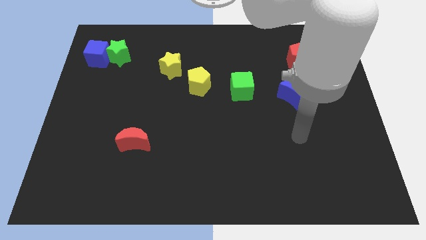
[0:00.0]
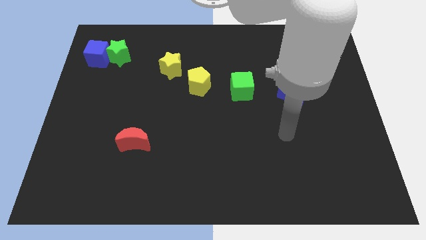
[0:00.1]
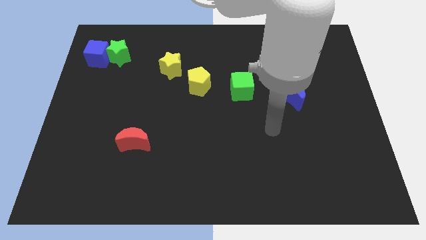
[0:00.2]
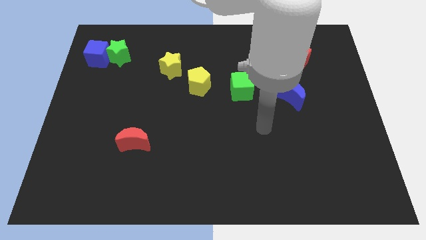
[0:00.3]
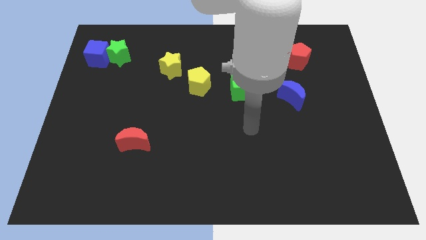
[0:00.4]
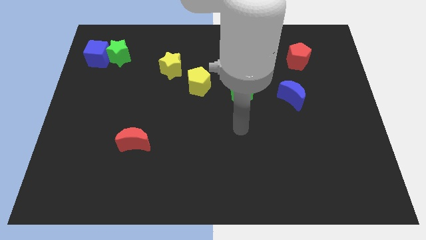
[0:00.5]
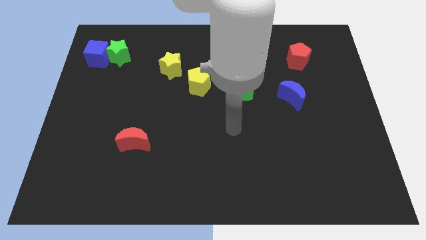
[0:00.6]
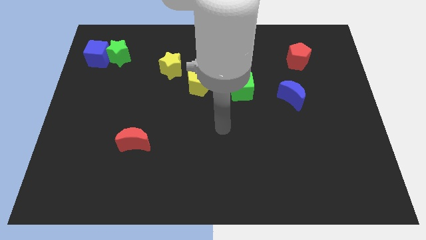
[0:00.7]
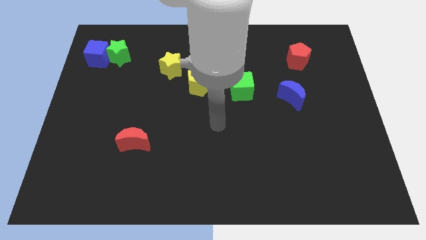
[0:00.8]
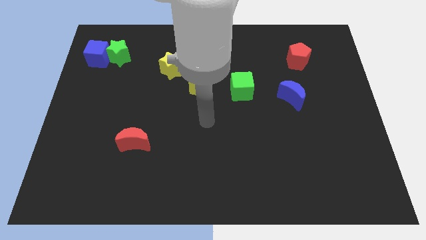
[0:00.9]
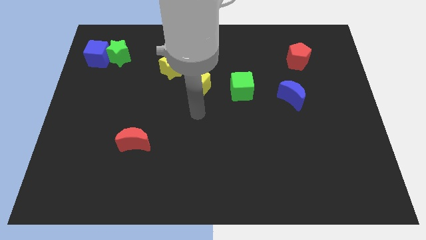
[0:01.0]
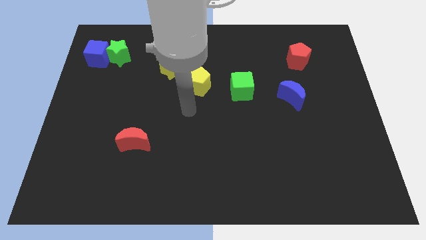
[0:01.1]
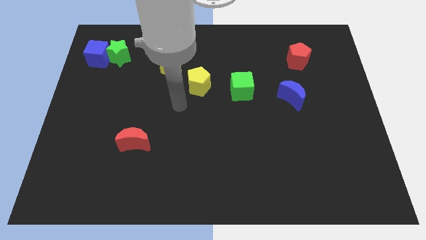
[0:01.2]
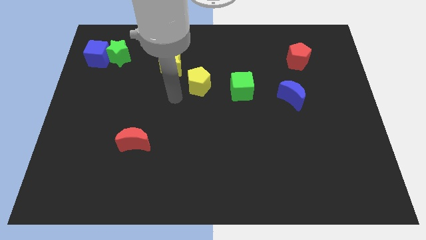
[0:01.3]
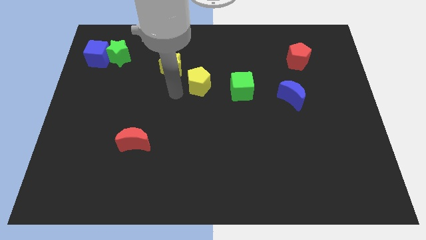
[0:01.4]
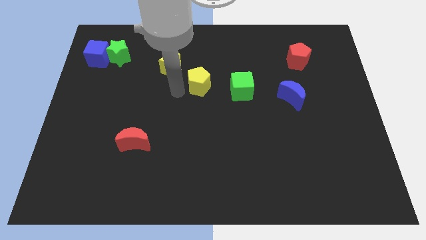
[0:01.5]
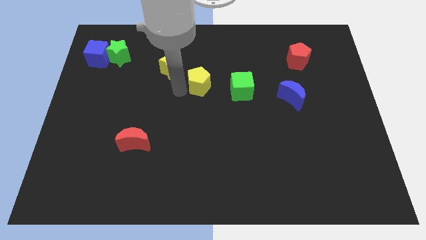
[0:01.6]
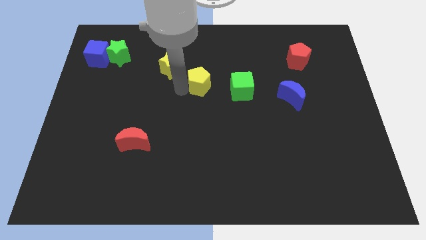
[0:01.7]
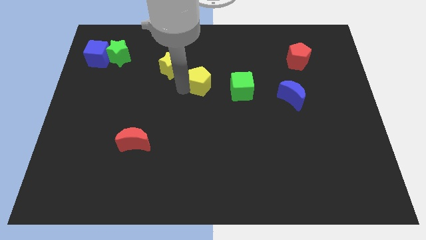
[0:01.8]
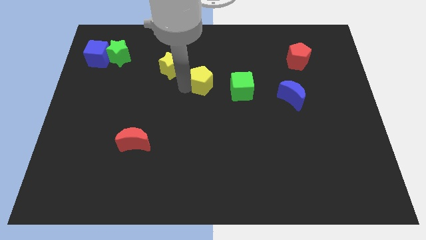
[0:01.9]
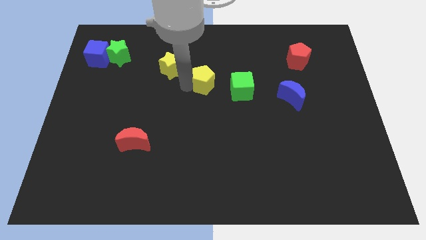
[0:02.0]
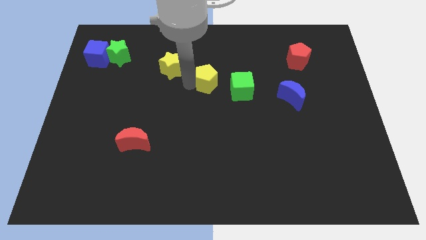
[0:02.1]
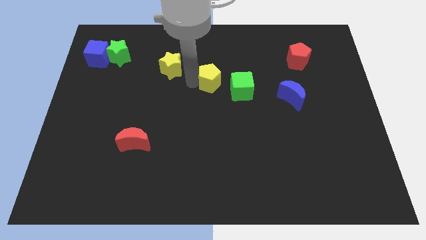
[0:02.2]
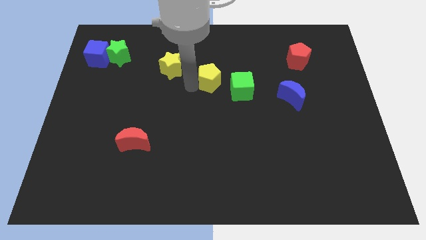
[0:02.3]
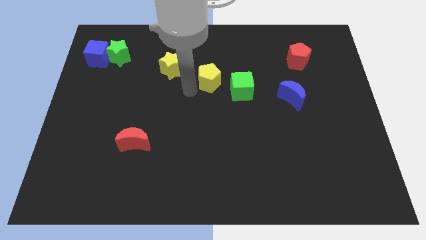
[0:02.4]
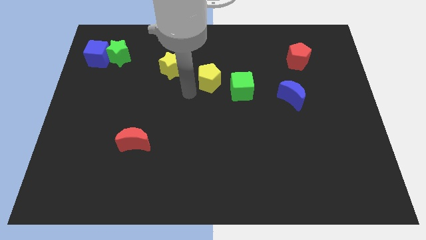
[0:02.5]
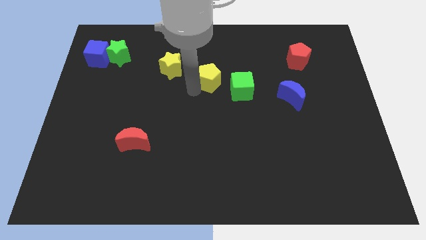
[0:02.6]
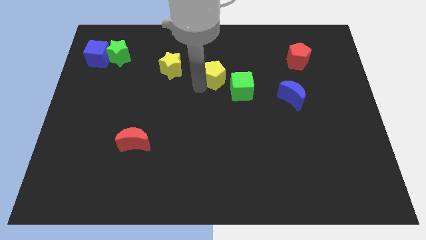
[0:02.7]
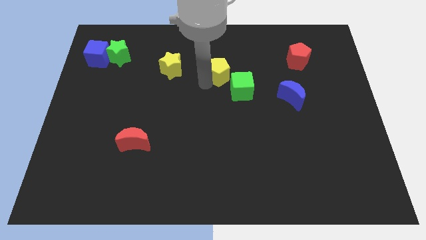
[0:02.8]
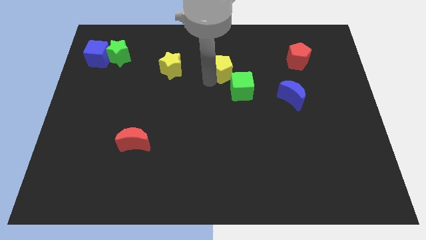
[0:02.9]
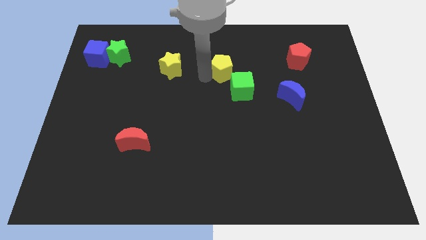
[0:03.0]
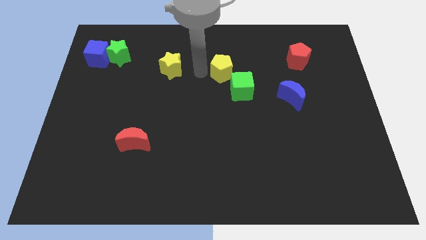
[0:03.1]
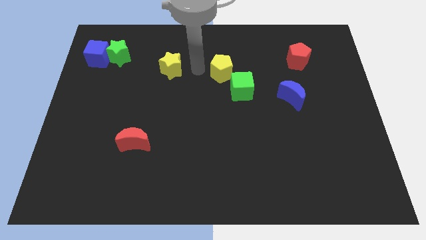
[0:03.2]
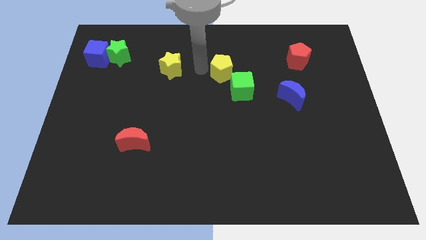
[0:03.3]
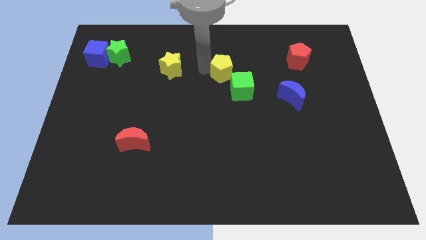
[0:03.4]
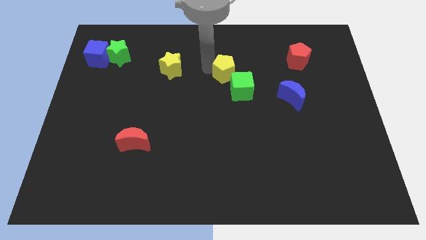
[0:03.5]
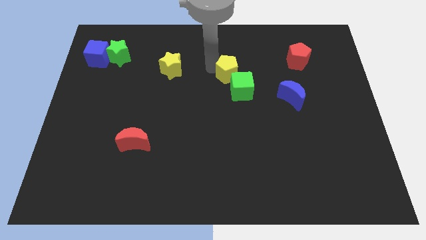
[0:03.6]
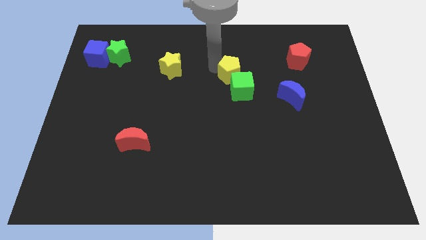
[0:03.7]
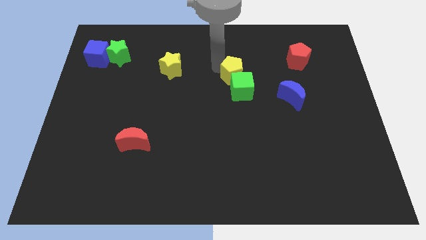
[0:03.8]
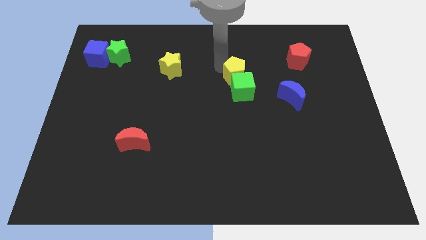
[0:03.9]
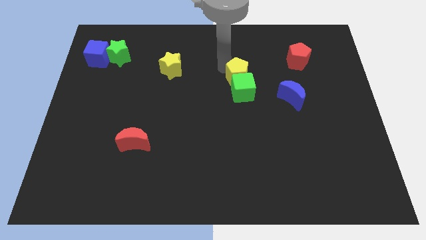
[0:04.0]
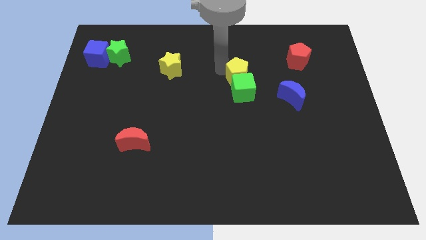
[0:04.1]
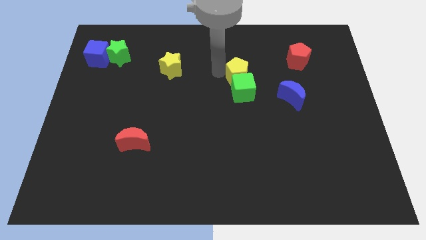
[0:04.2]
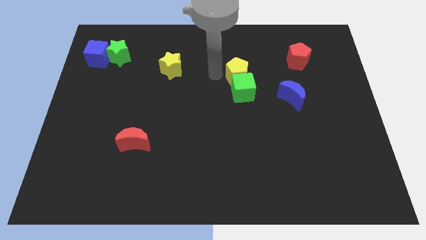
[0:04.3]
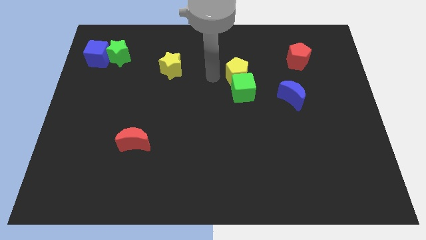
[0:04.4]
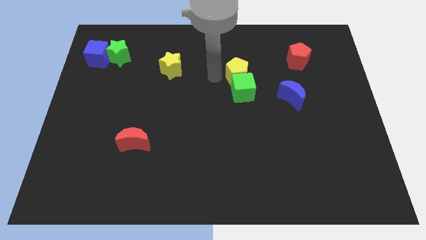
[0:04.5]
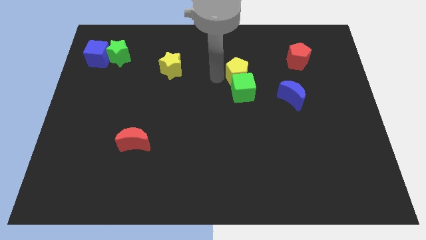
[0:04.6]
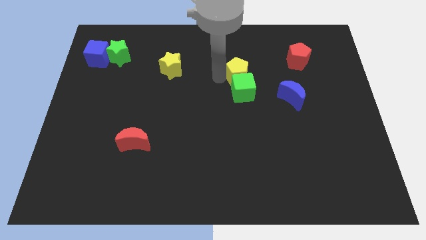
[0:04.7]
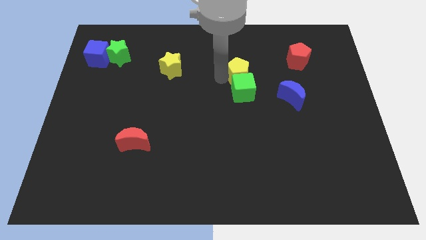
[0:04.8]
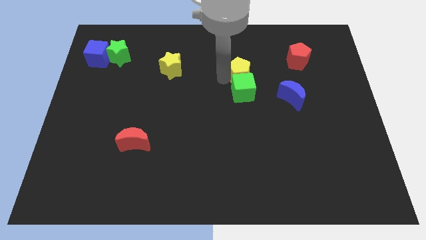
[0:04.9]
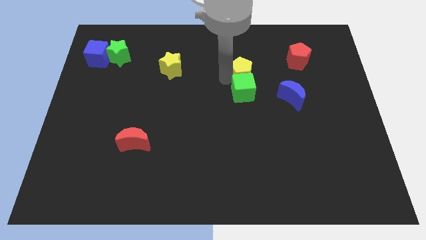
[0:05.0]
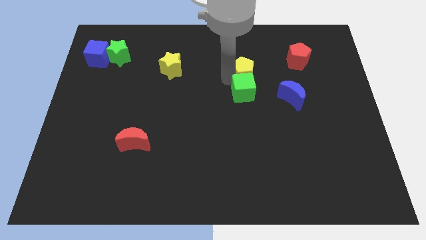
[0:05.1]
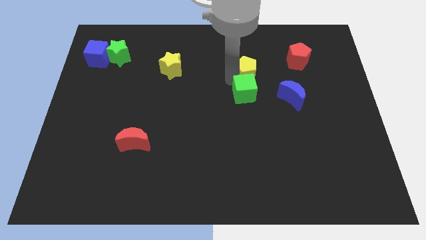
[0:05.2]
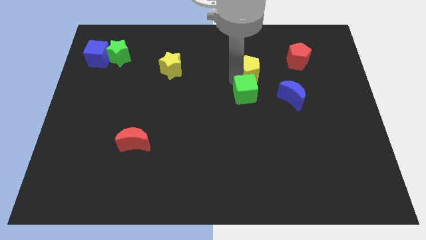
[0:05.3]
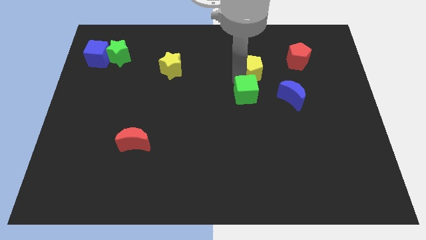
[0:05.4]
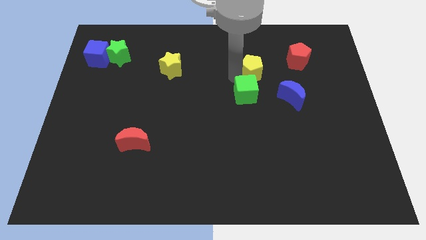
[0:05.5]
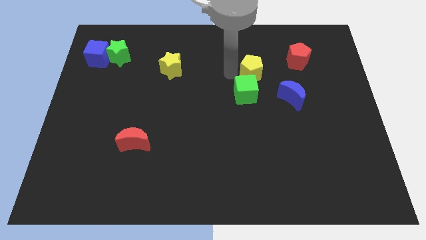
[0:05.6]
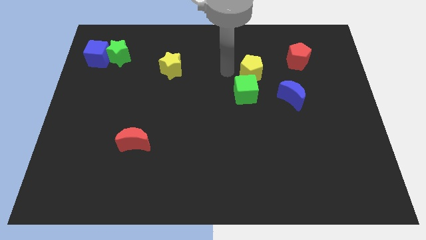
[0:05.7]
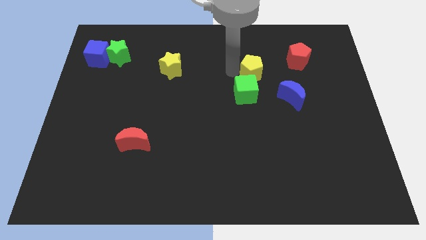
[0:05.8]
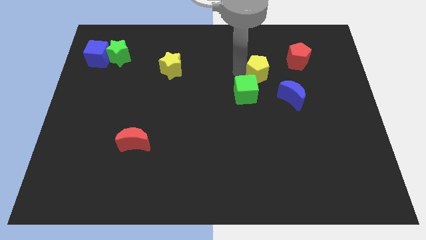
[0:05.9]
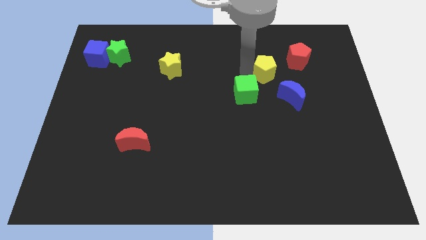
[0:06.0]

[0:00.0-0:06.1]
slide the yellow pentagon diagonally down and to the left of the red pentagon

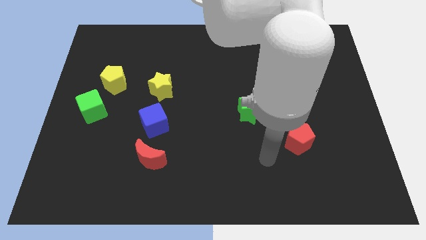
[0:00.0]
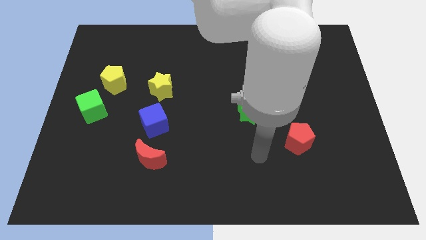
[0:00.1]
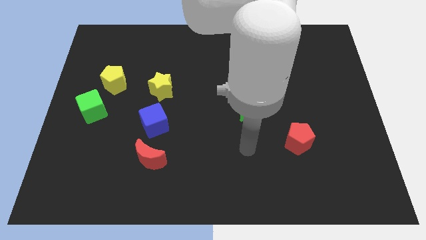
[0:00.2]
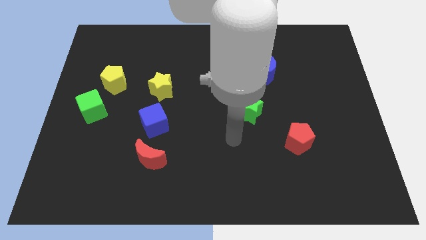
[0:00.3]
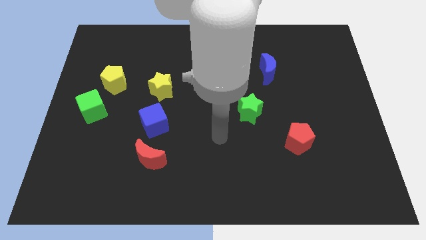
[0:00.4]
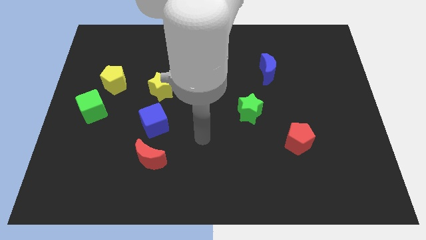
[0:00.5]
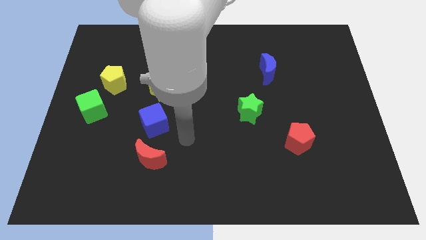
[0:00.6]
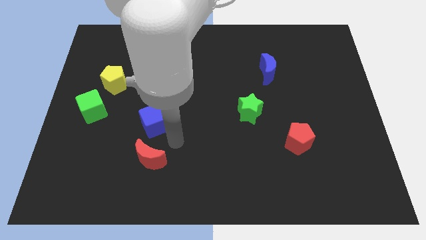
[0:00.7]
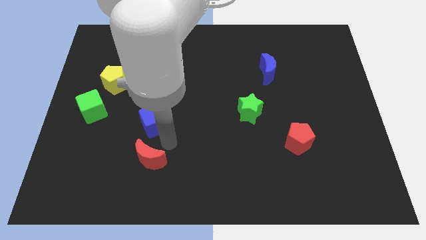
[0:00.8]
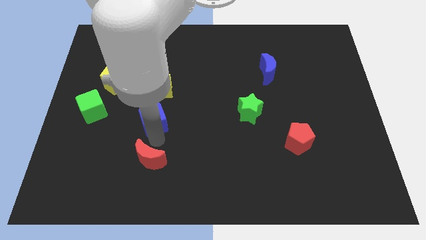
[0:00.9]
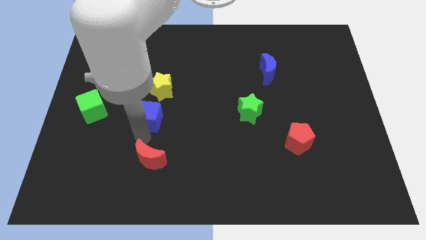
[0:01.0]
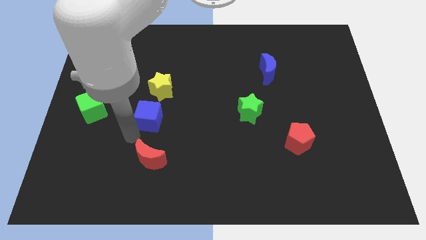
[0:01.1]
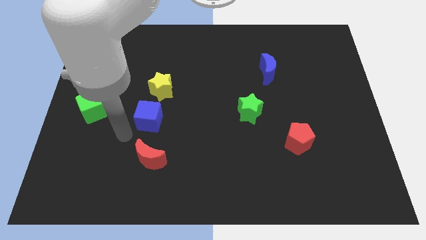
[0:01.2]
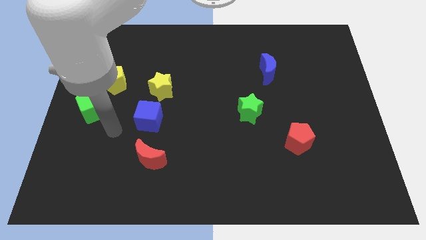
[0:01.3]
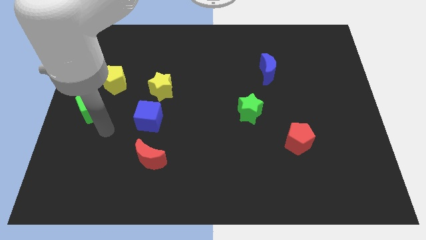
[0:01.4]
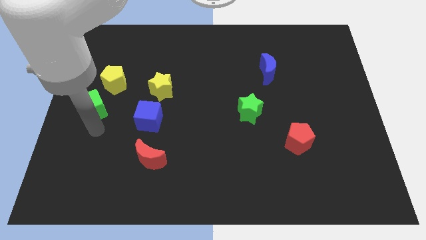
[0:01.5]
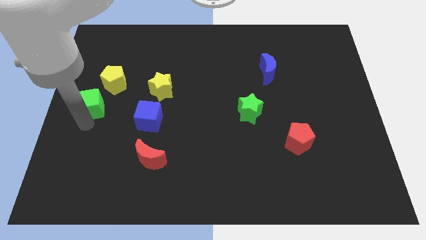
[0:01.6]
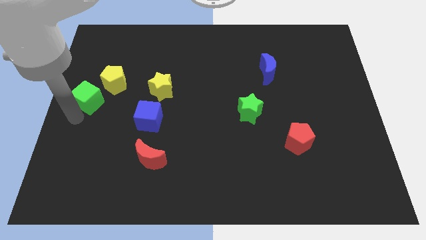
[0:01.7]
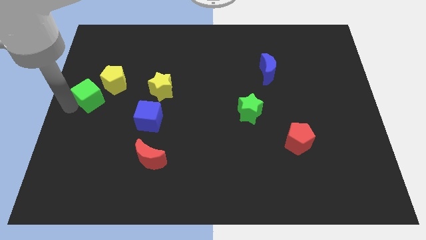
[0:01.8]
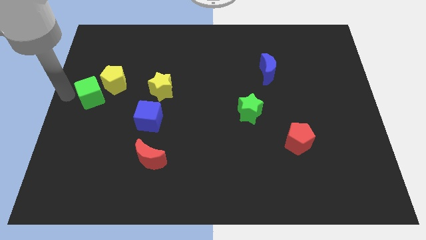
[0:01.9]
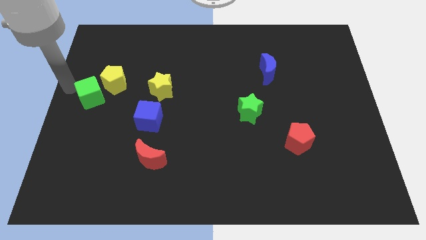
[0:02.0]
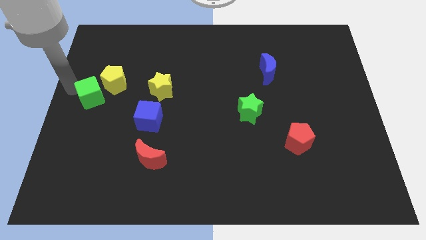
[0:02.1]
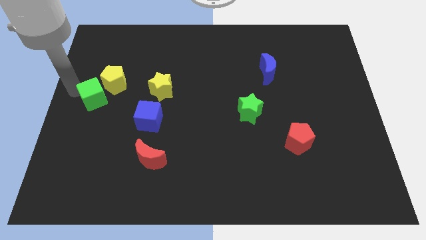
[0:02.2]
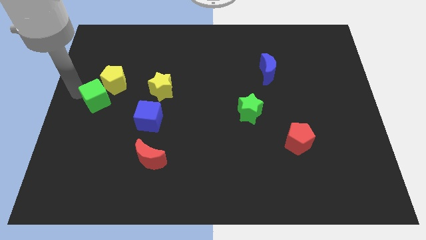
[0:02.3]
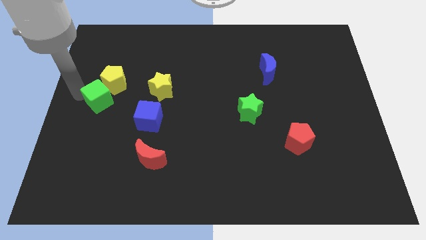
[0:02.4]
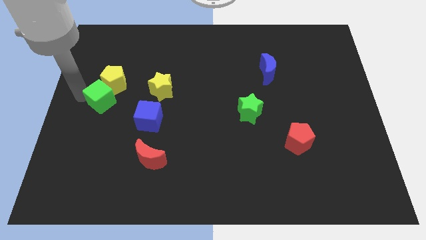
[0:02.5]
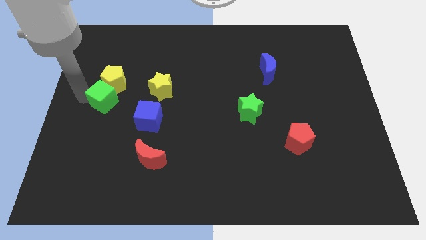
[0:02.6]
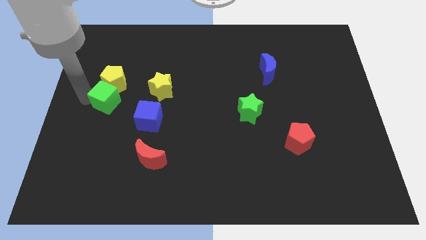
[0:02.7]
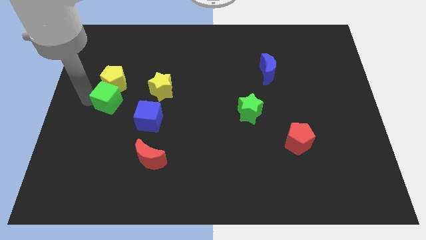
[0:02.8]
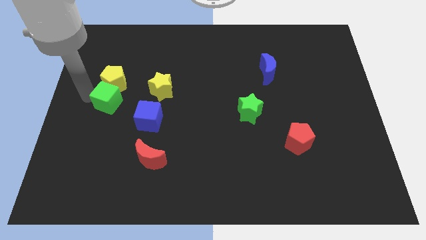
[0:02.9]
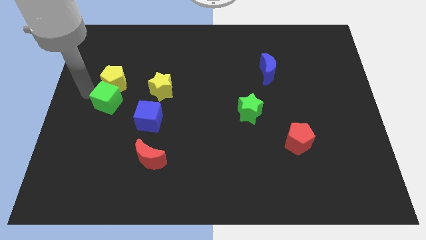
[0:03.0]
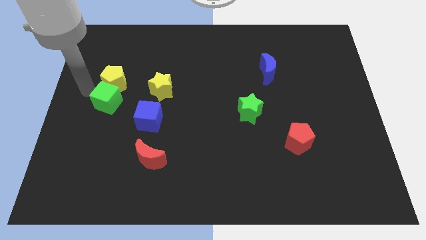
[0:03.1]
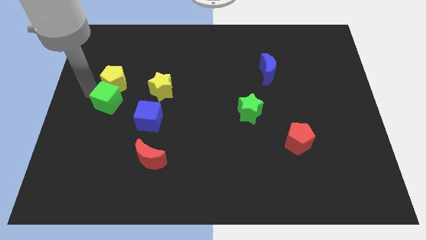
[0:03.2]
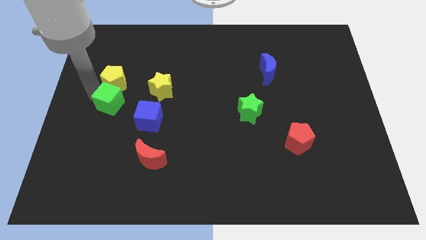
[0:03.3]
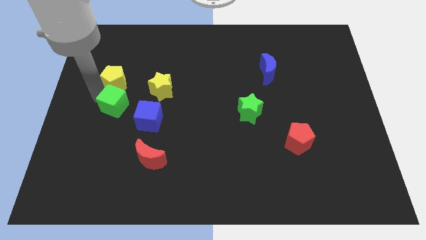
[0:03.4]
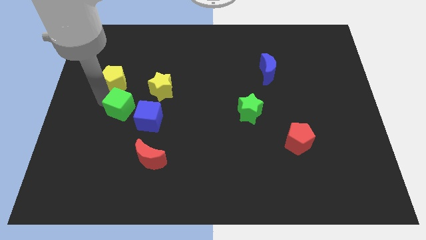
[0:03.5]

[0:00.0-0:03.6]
move the green cube to the bottom left of the yellow star
